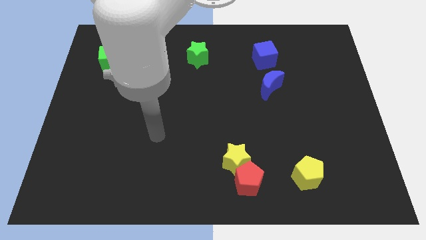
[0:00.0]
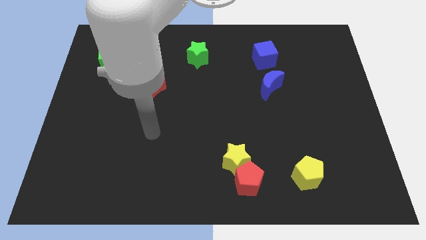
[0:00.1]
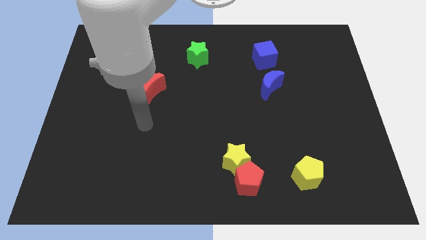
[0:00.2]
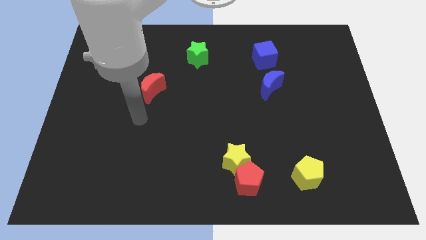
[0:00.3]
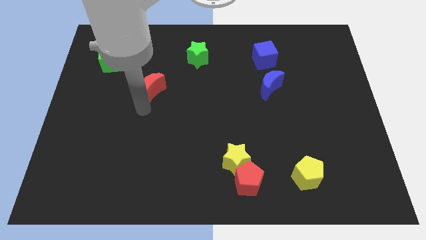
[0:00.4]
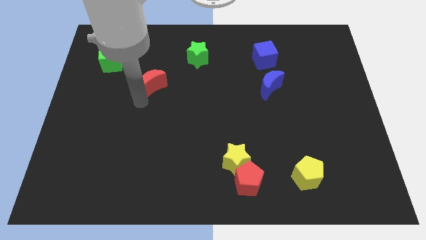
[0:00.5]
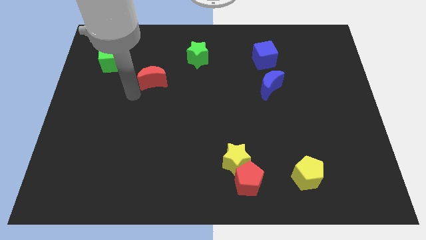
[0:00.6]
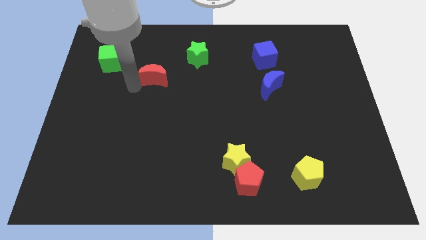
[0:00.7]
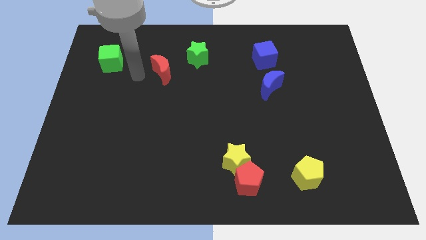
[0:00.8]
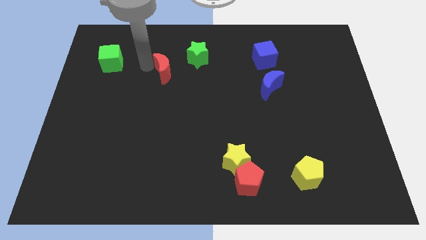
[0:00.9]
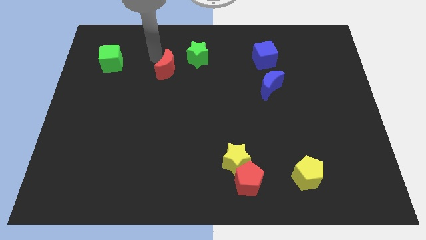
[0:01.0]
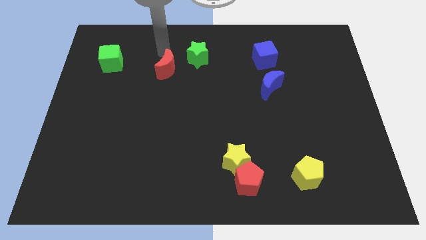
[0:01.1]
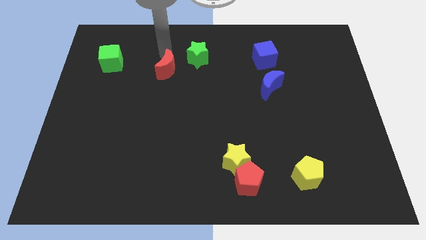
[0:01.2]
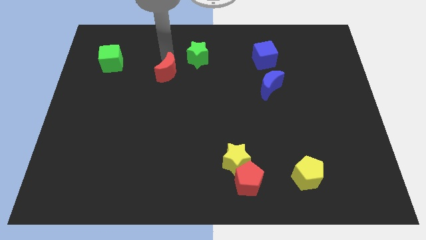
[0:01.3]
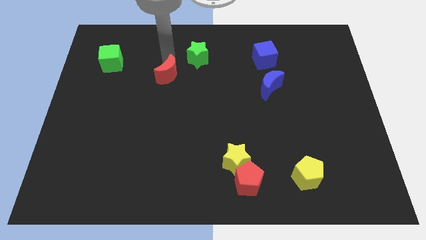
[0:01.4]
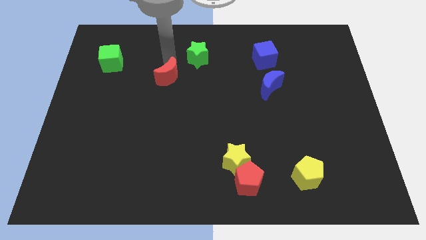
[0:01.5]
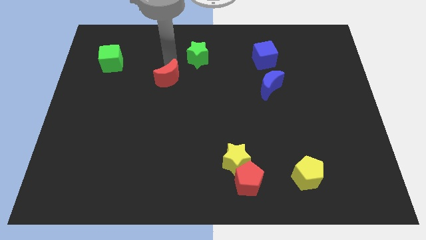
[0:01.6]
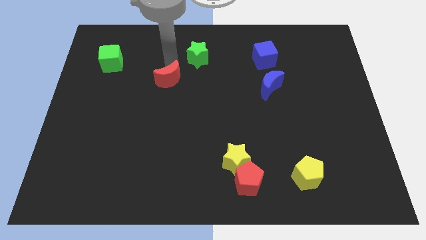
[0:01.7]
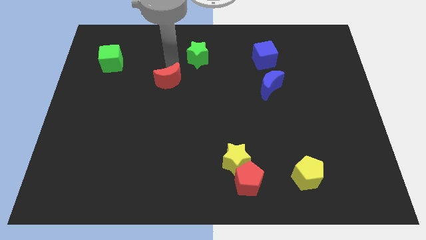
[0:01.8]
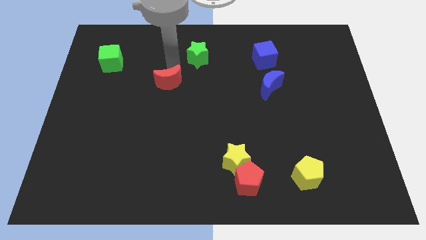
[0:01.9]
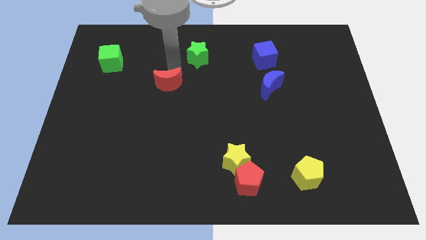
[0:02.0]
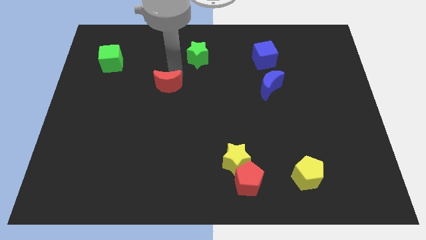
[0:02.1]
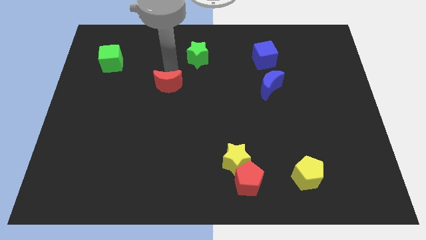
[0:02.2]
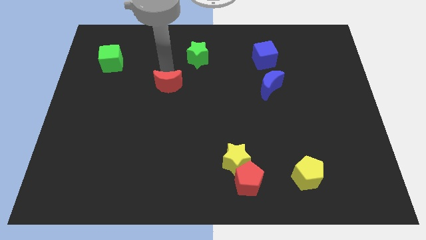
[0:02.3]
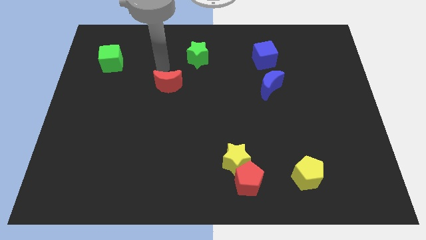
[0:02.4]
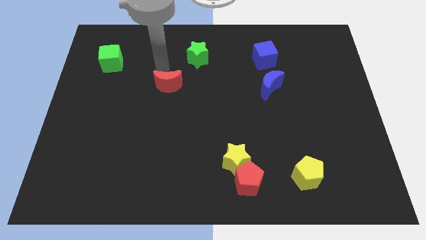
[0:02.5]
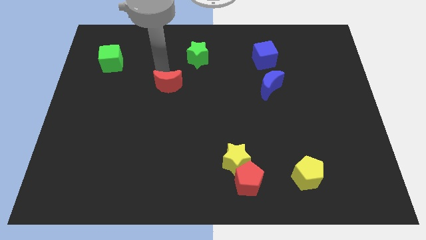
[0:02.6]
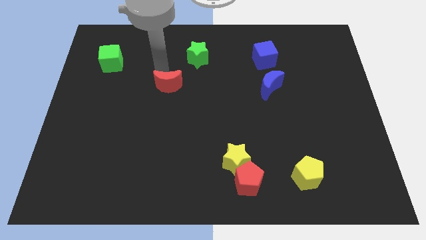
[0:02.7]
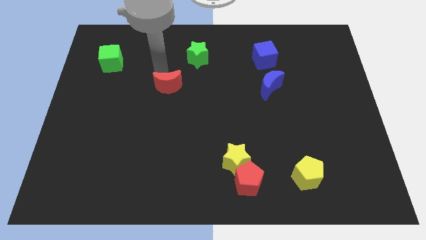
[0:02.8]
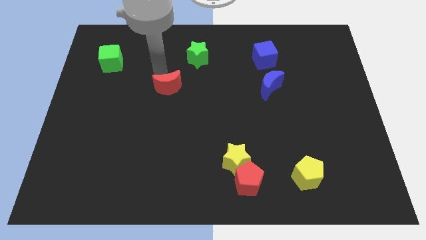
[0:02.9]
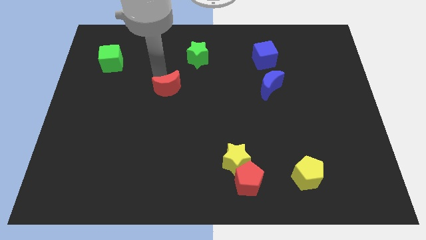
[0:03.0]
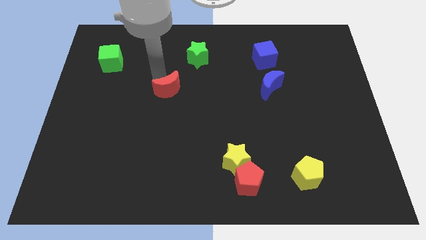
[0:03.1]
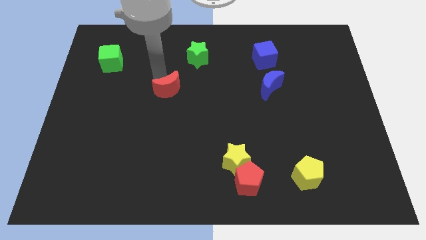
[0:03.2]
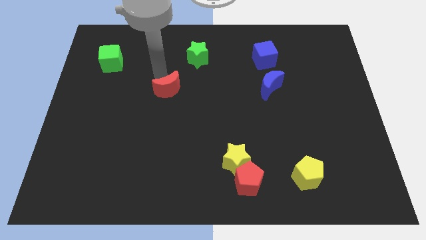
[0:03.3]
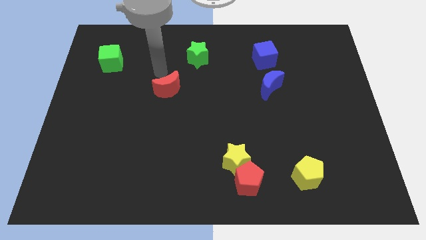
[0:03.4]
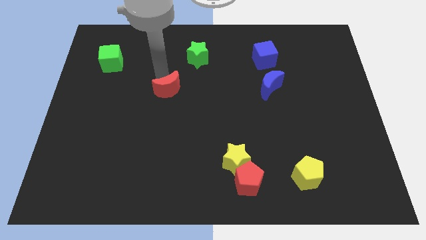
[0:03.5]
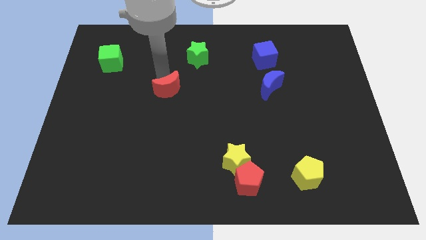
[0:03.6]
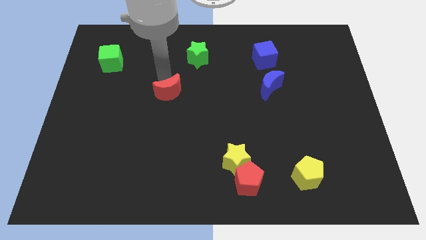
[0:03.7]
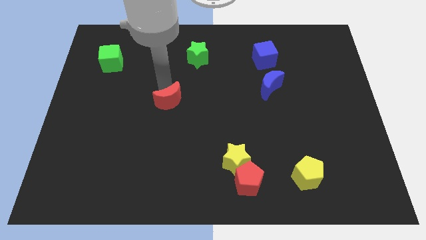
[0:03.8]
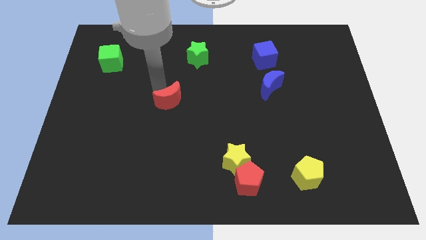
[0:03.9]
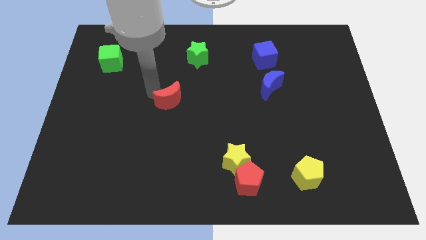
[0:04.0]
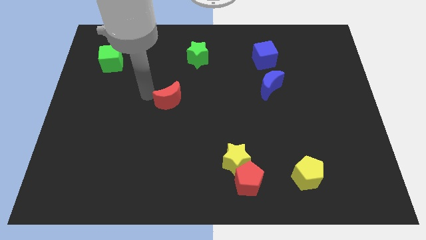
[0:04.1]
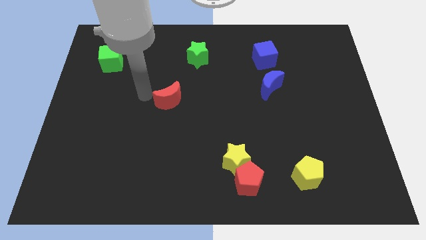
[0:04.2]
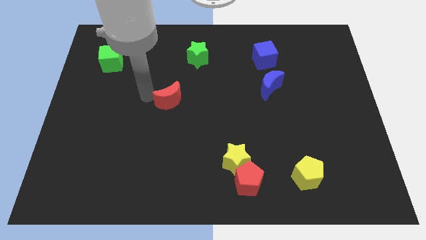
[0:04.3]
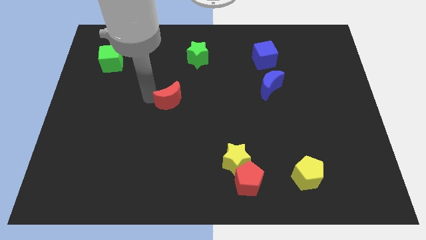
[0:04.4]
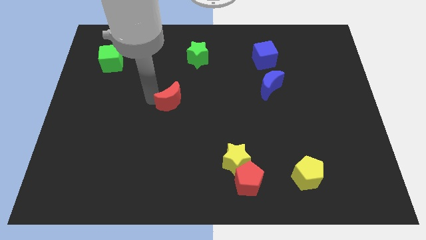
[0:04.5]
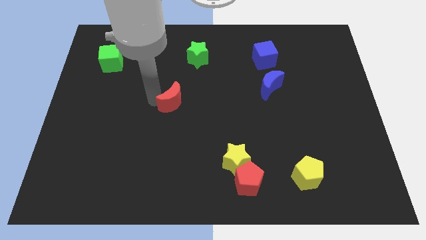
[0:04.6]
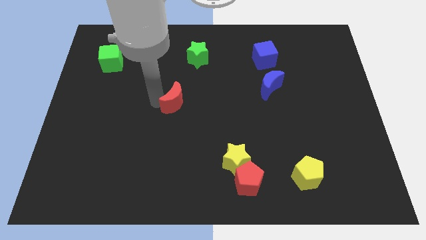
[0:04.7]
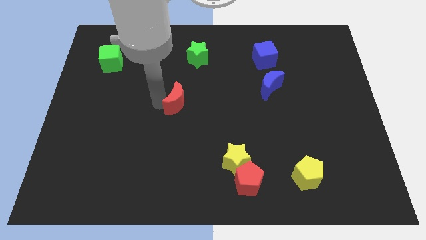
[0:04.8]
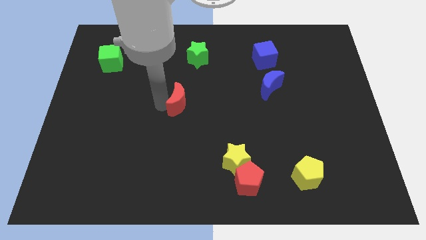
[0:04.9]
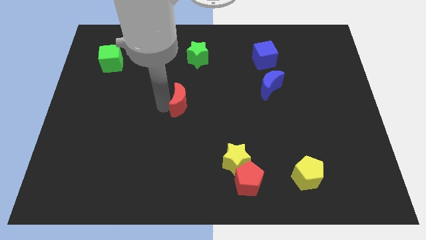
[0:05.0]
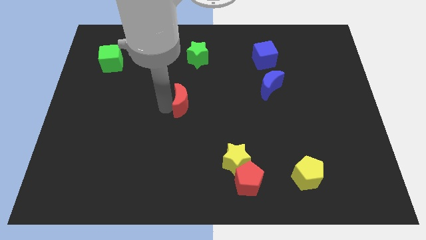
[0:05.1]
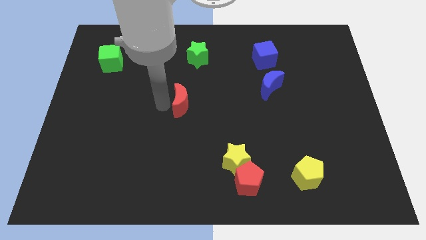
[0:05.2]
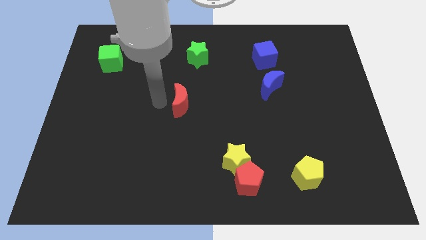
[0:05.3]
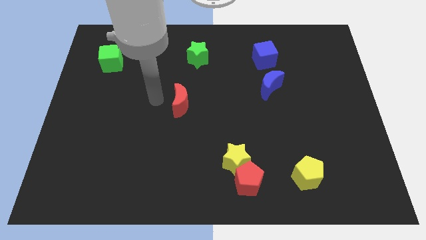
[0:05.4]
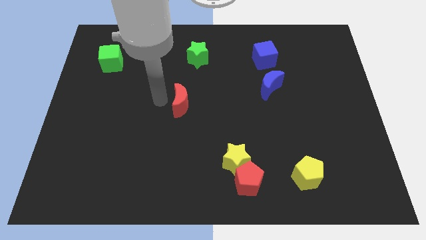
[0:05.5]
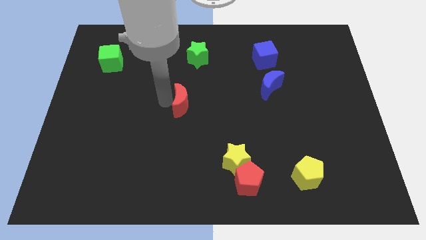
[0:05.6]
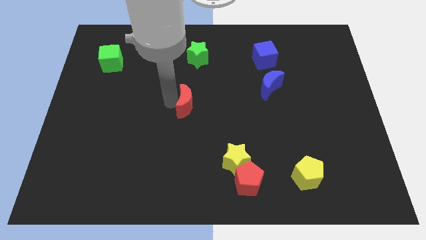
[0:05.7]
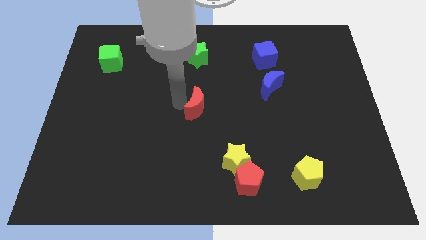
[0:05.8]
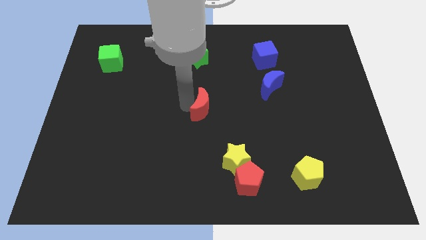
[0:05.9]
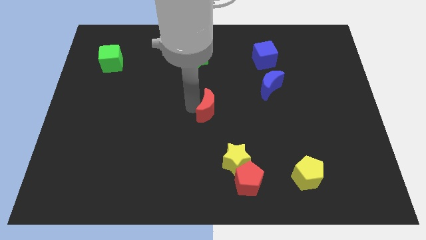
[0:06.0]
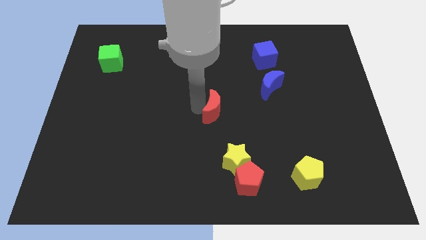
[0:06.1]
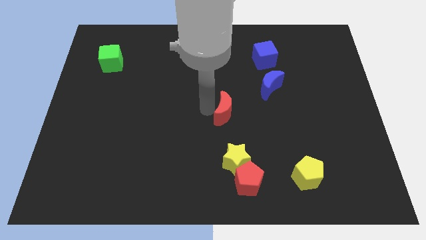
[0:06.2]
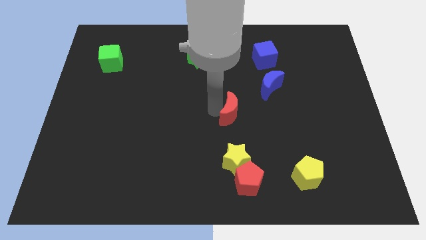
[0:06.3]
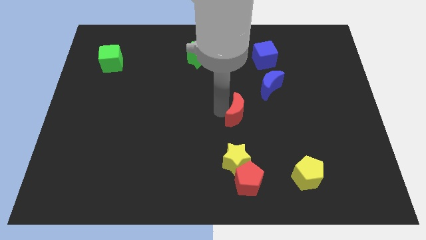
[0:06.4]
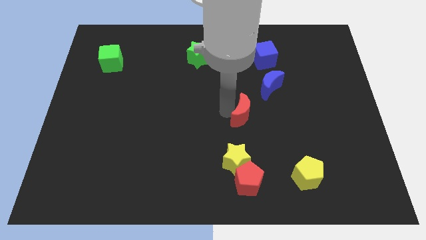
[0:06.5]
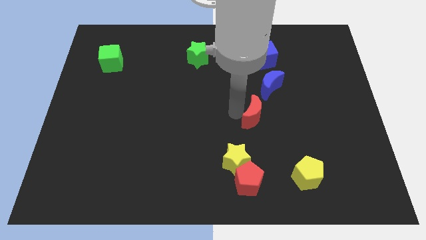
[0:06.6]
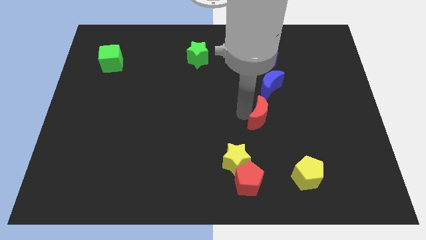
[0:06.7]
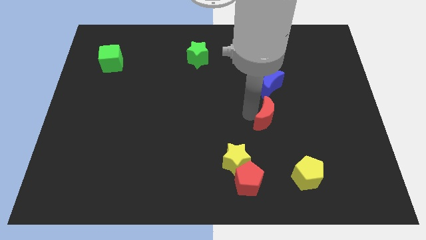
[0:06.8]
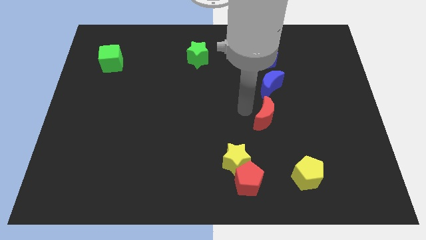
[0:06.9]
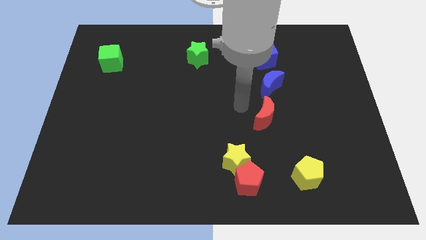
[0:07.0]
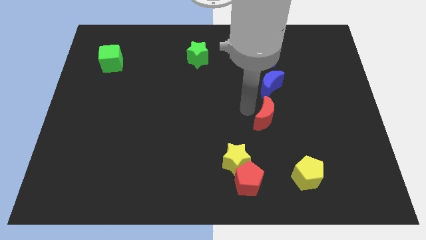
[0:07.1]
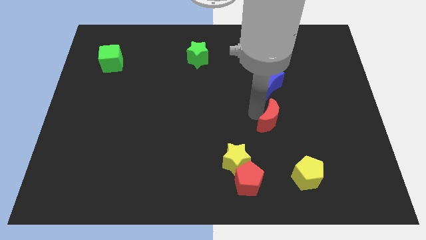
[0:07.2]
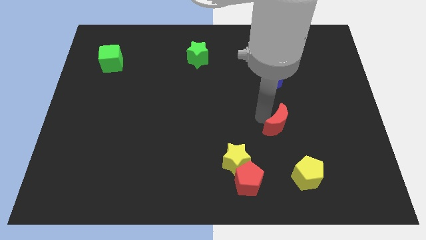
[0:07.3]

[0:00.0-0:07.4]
move the red moon to the top side of the yellow pentagon
